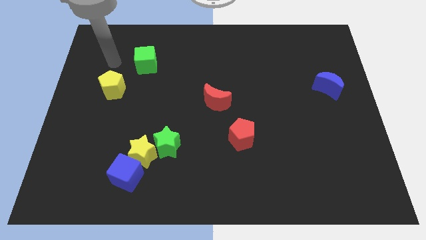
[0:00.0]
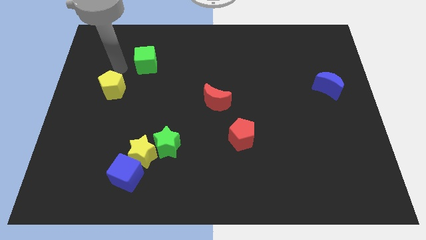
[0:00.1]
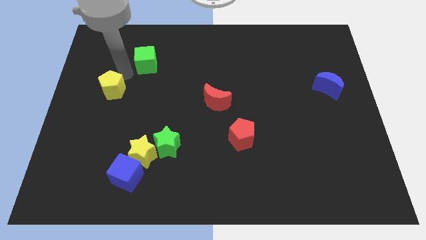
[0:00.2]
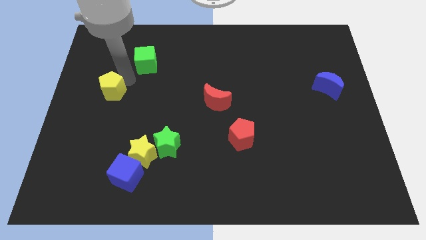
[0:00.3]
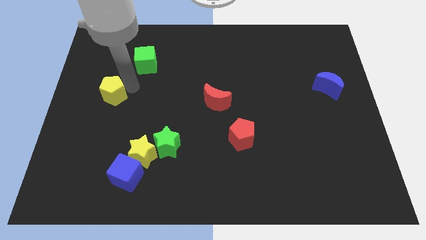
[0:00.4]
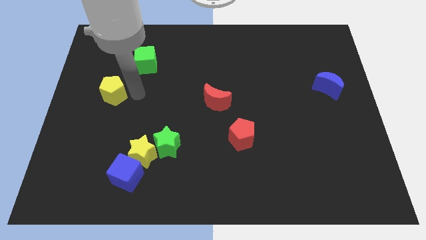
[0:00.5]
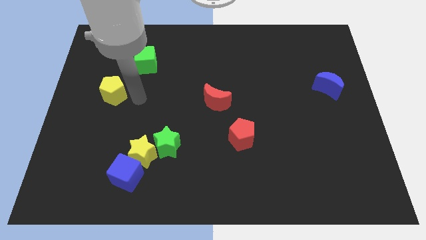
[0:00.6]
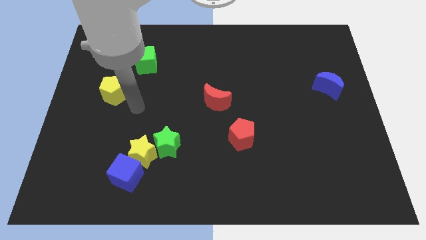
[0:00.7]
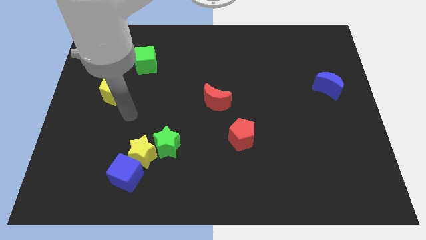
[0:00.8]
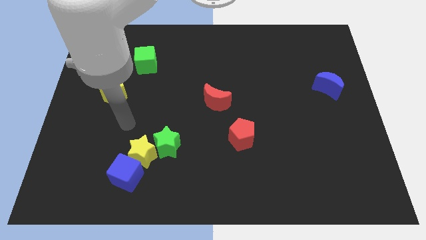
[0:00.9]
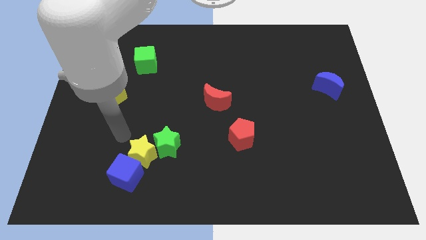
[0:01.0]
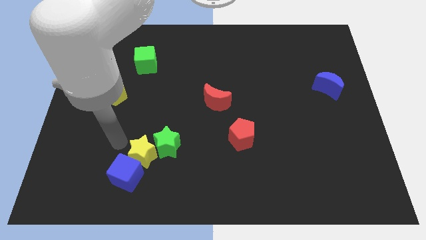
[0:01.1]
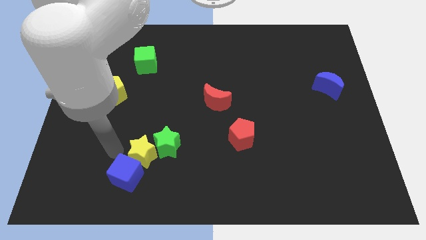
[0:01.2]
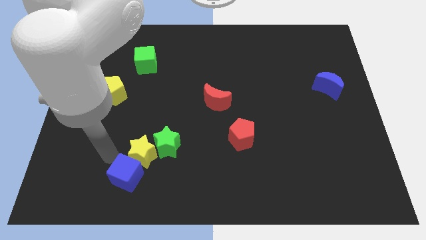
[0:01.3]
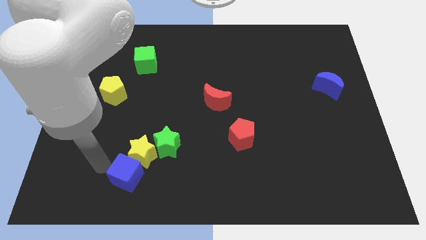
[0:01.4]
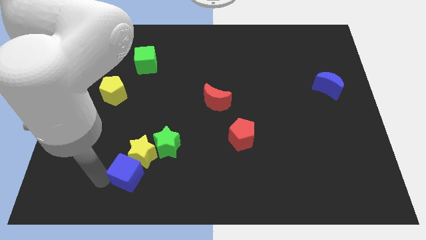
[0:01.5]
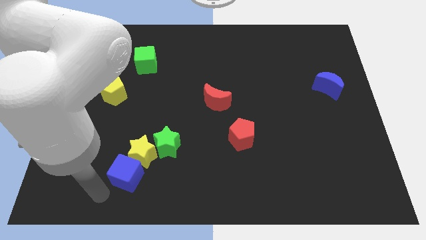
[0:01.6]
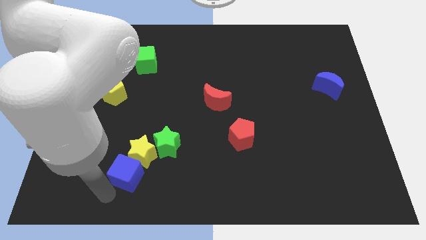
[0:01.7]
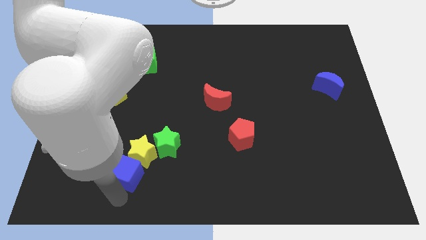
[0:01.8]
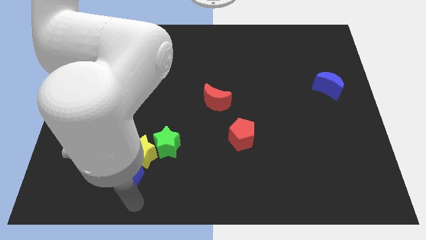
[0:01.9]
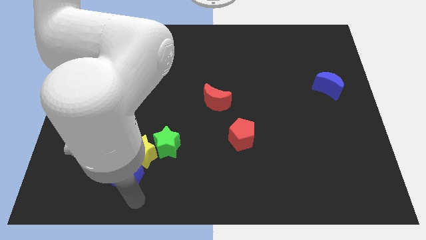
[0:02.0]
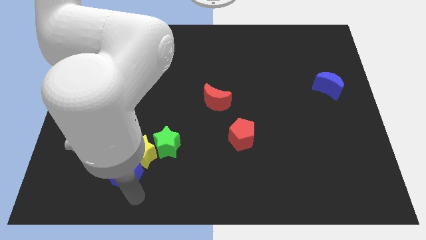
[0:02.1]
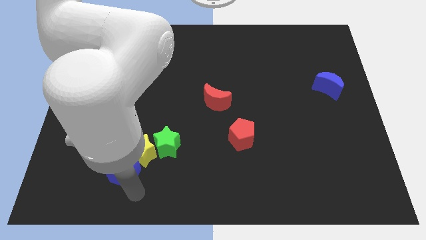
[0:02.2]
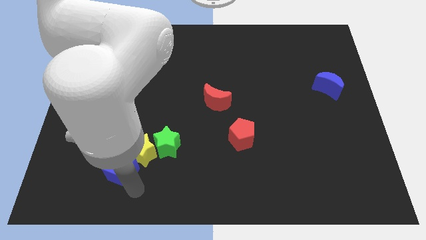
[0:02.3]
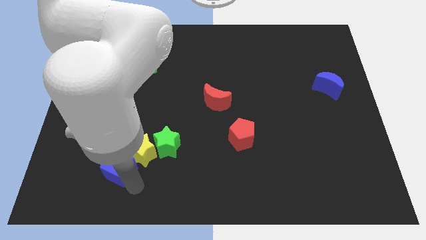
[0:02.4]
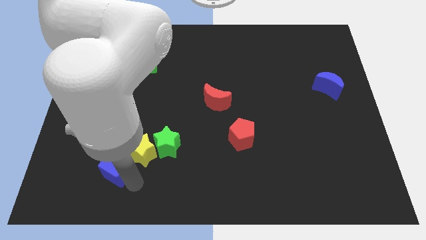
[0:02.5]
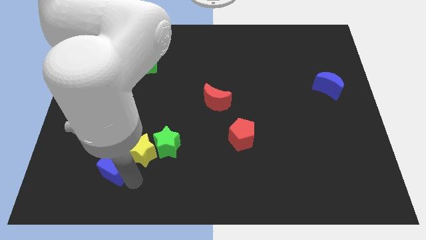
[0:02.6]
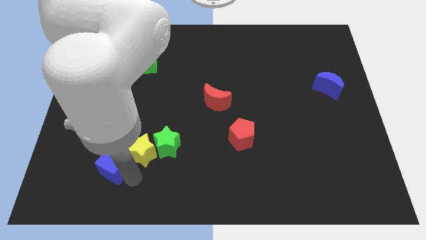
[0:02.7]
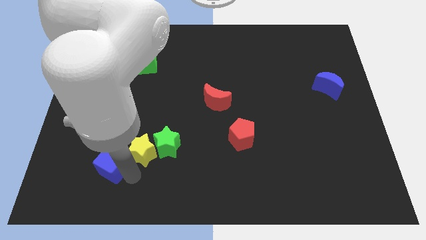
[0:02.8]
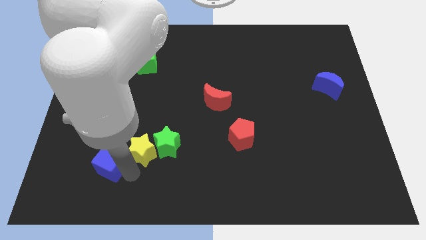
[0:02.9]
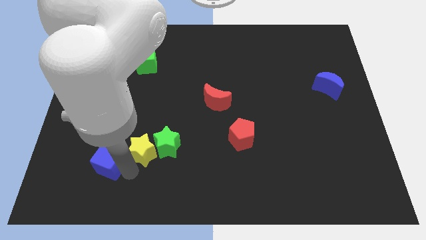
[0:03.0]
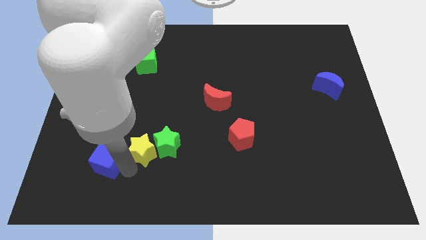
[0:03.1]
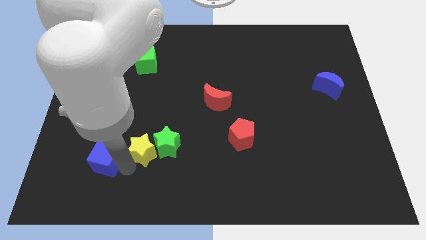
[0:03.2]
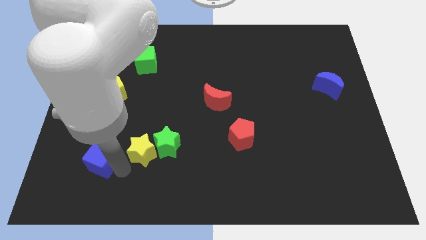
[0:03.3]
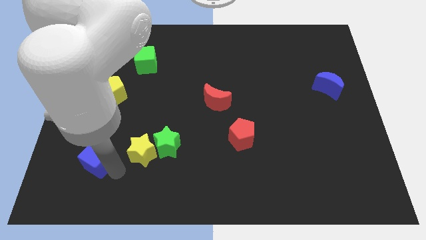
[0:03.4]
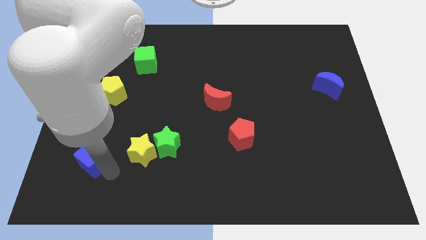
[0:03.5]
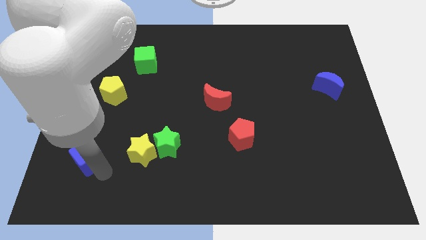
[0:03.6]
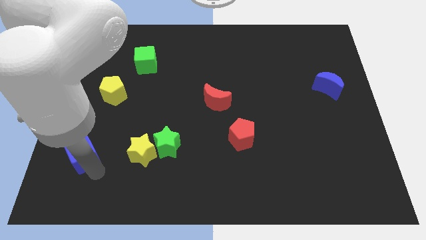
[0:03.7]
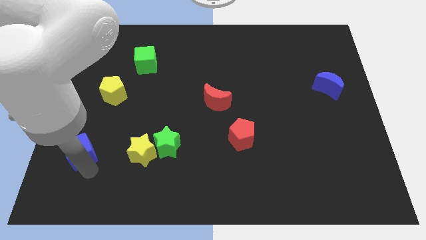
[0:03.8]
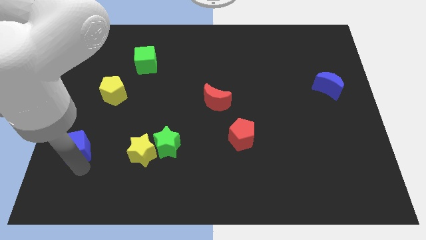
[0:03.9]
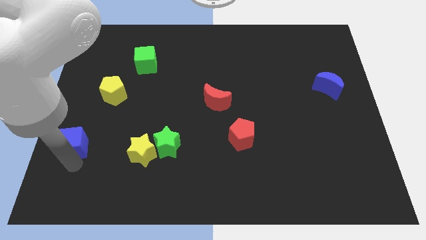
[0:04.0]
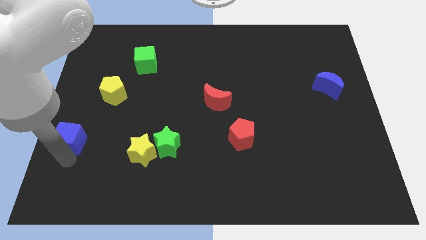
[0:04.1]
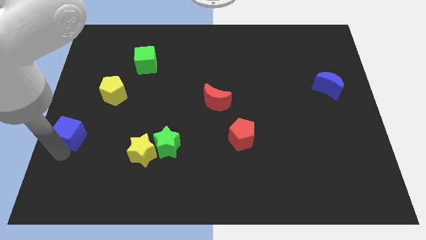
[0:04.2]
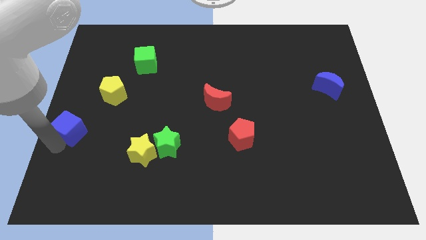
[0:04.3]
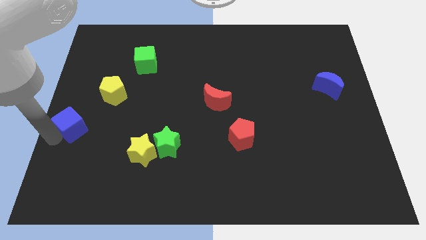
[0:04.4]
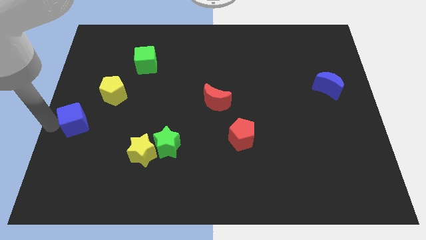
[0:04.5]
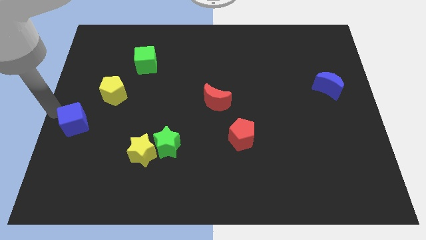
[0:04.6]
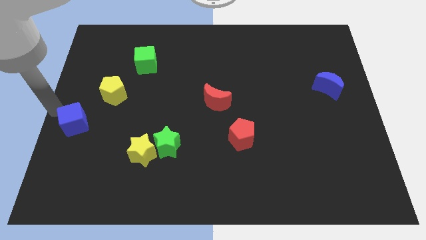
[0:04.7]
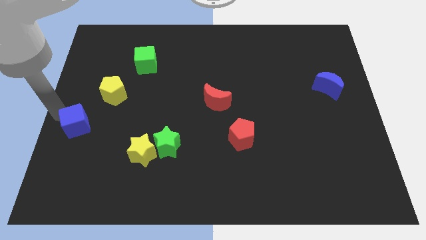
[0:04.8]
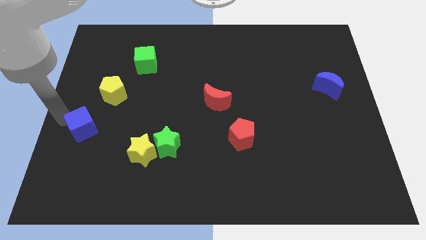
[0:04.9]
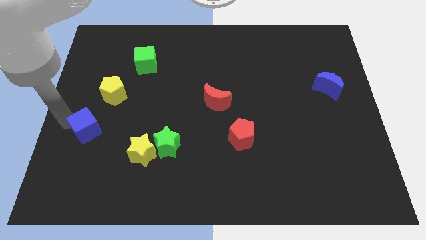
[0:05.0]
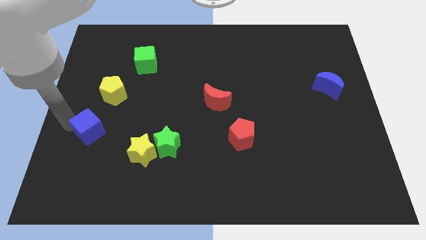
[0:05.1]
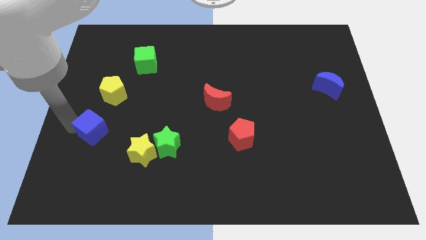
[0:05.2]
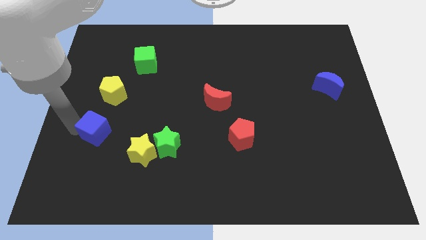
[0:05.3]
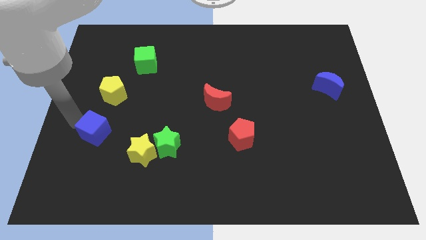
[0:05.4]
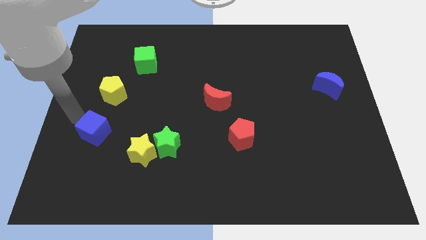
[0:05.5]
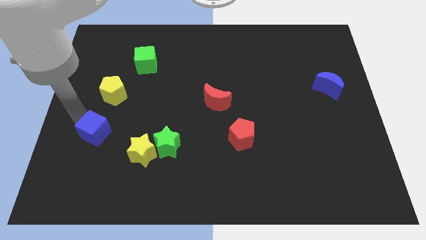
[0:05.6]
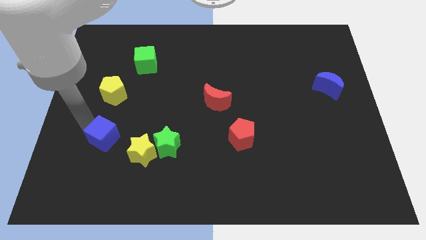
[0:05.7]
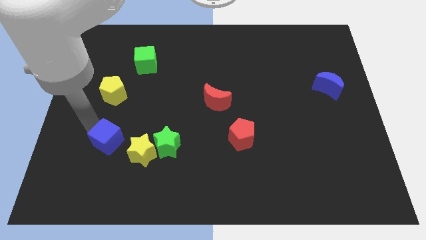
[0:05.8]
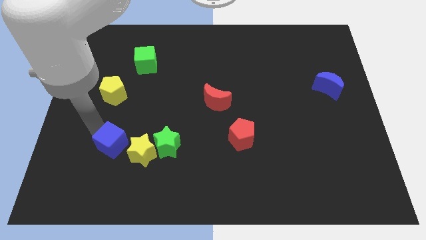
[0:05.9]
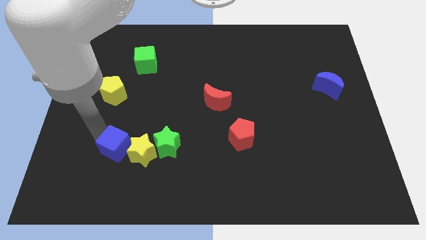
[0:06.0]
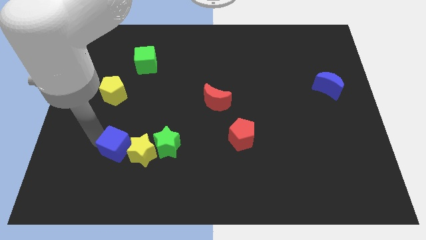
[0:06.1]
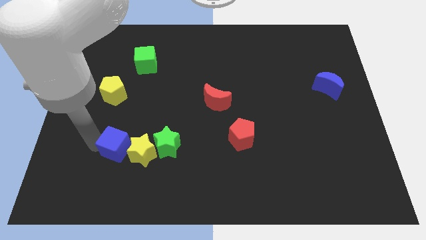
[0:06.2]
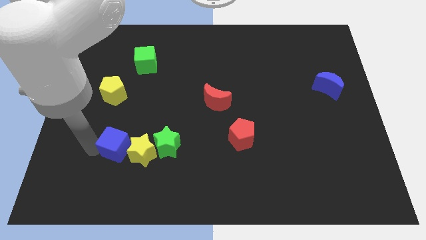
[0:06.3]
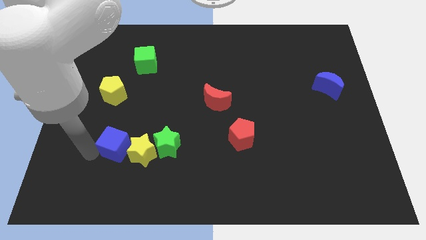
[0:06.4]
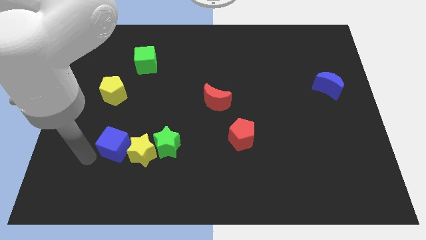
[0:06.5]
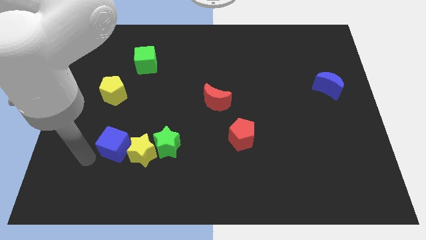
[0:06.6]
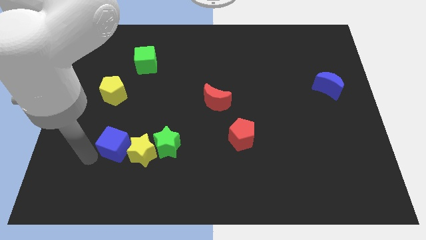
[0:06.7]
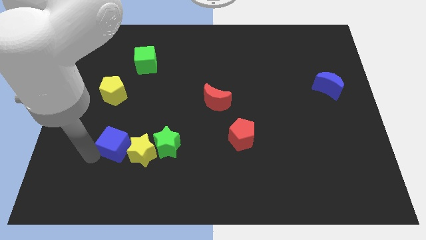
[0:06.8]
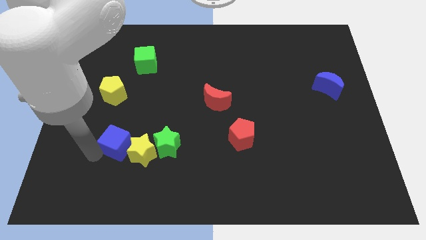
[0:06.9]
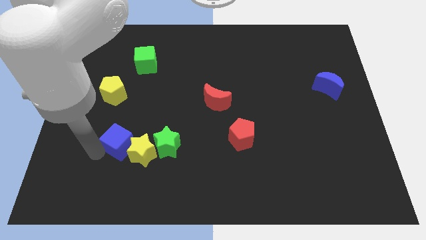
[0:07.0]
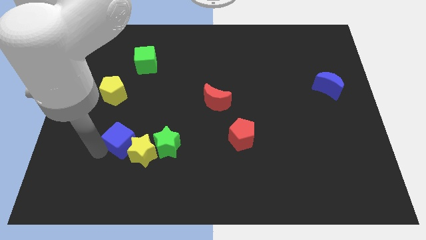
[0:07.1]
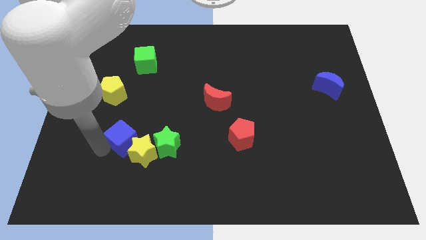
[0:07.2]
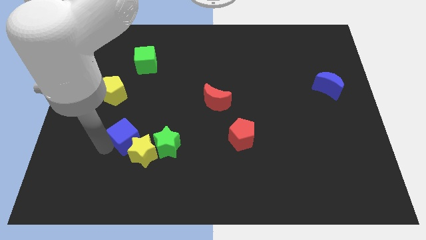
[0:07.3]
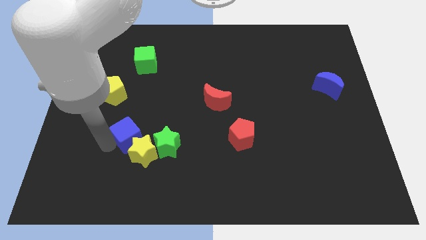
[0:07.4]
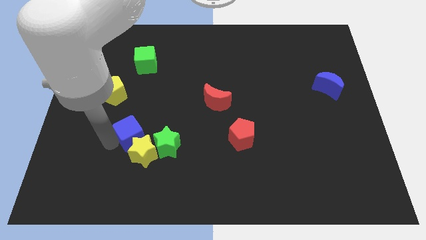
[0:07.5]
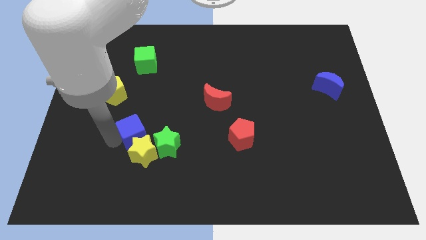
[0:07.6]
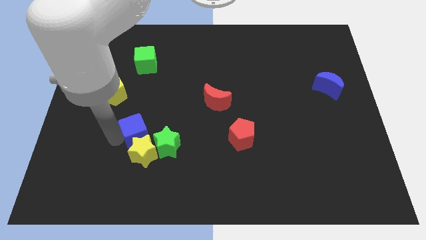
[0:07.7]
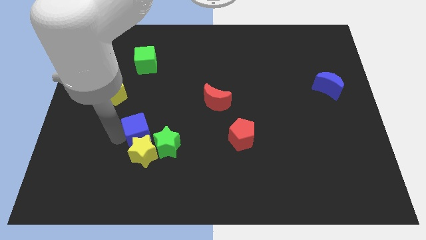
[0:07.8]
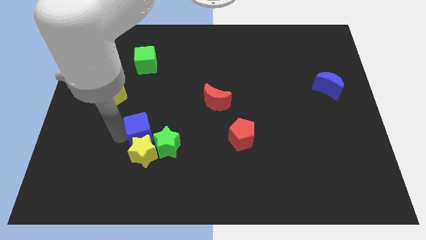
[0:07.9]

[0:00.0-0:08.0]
slide the blue cube a little bit diagonally upwards and to the right

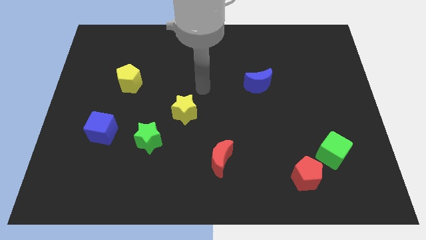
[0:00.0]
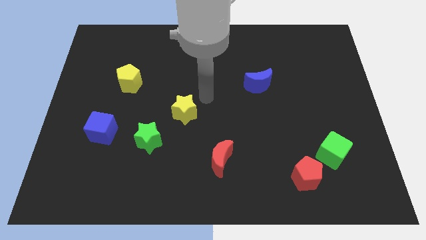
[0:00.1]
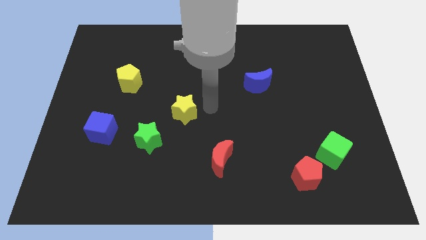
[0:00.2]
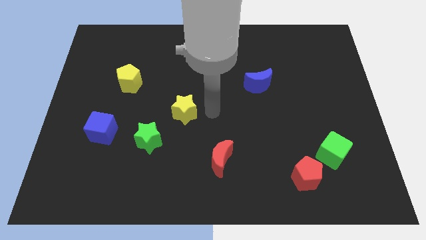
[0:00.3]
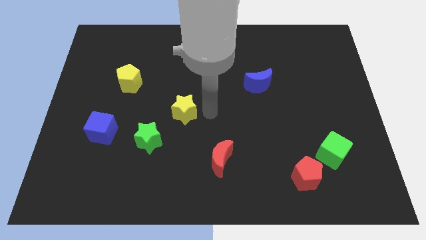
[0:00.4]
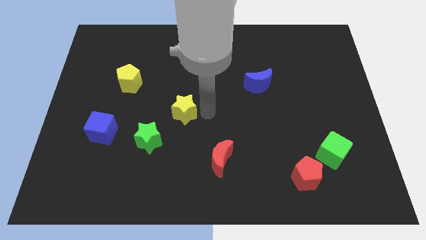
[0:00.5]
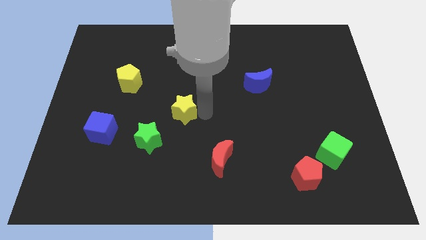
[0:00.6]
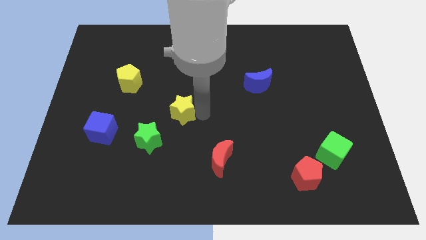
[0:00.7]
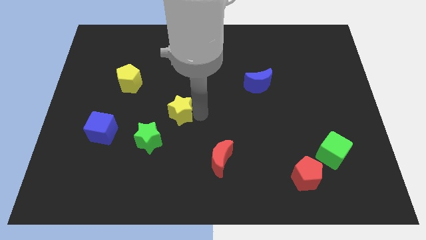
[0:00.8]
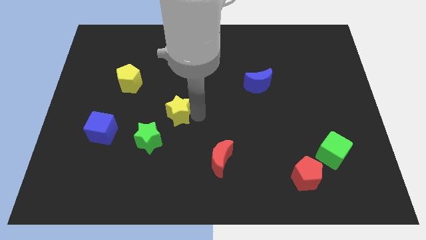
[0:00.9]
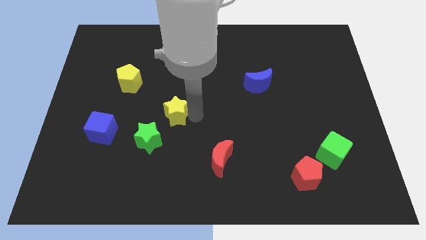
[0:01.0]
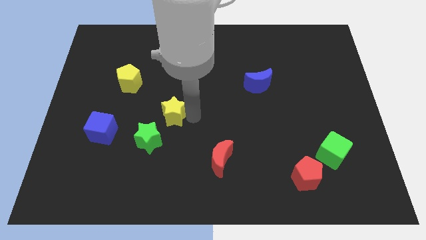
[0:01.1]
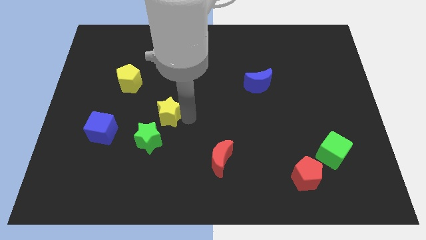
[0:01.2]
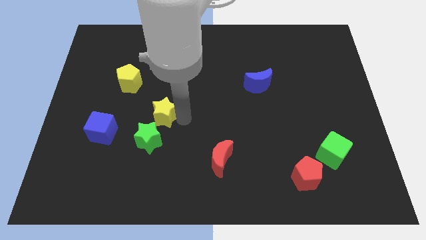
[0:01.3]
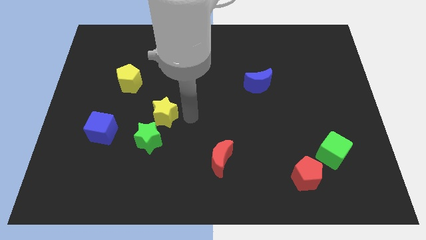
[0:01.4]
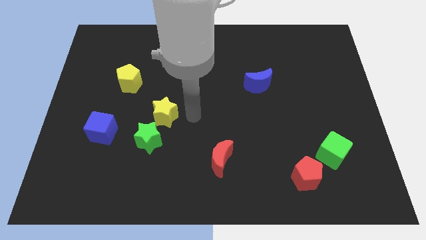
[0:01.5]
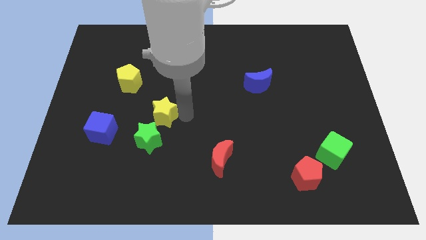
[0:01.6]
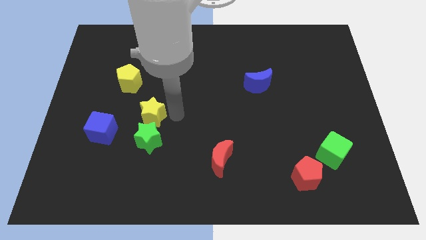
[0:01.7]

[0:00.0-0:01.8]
slightly push the yellow star to the left
